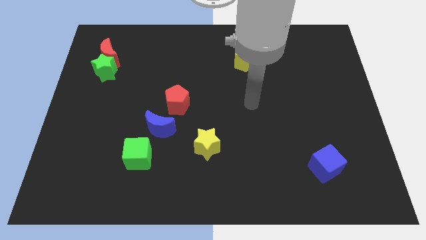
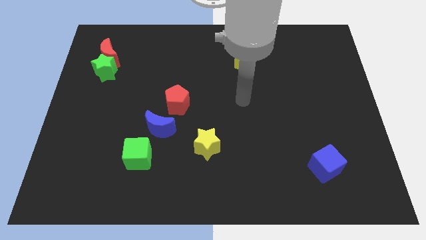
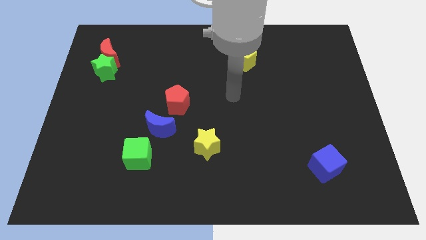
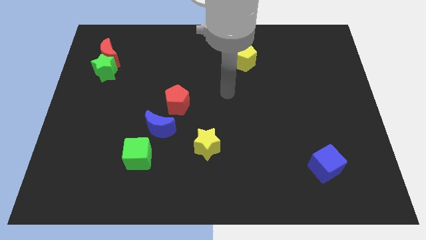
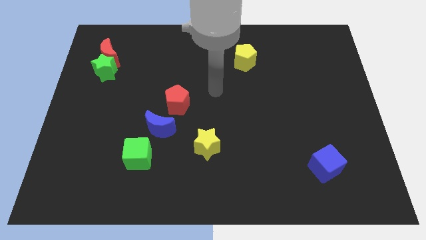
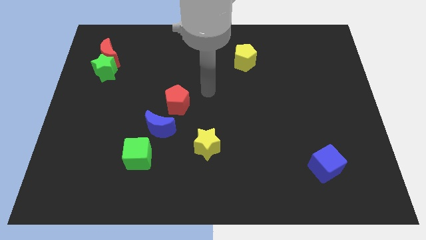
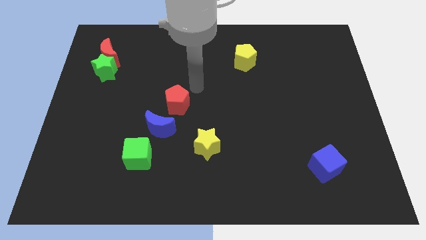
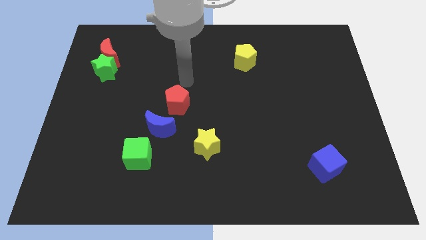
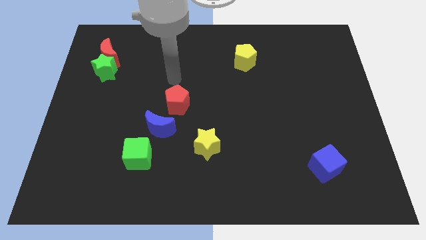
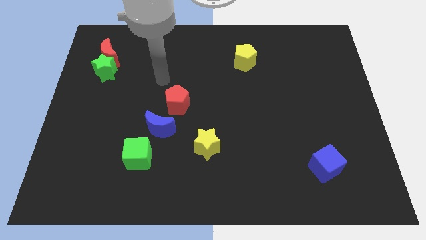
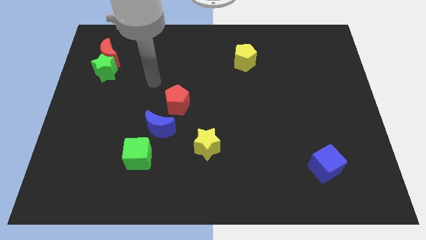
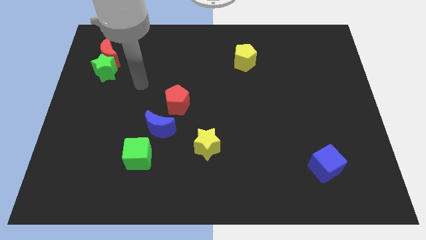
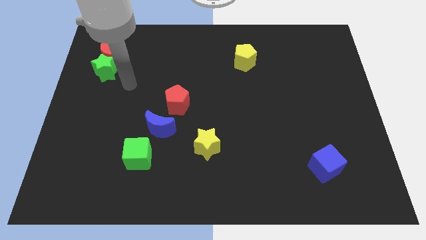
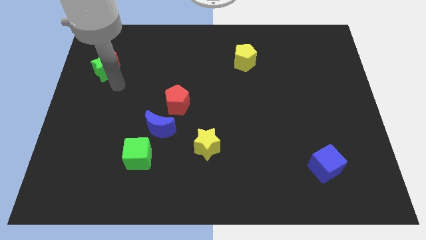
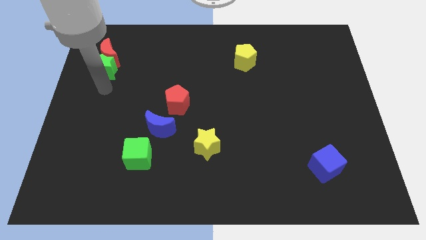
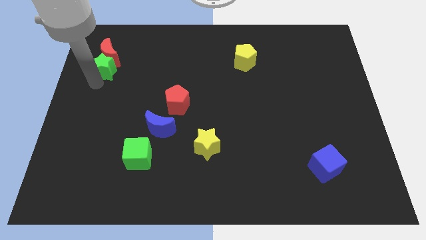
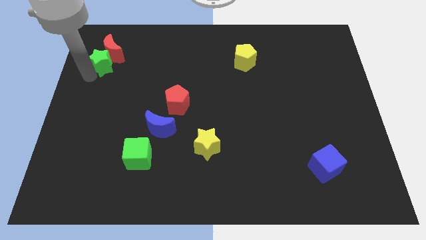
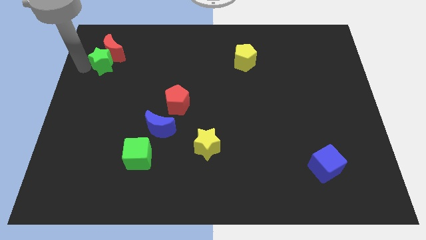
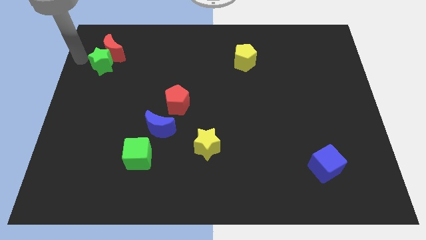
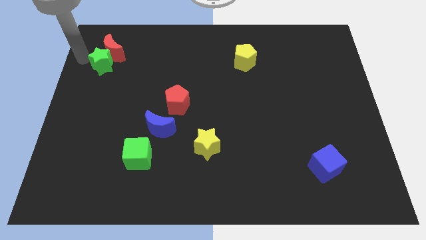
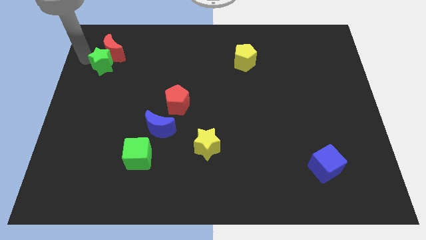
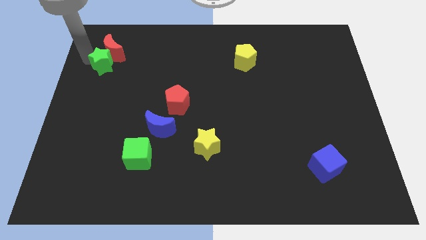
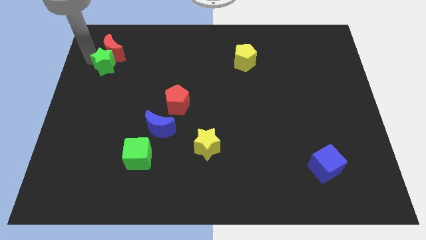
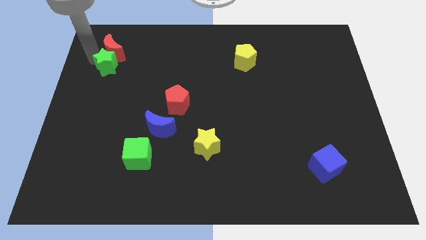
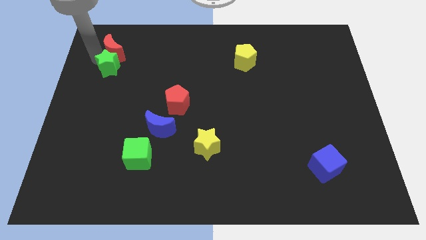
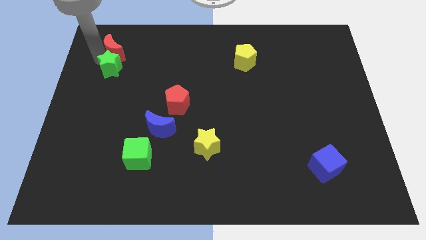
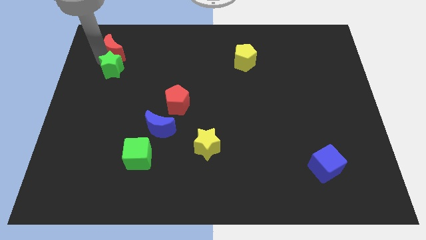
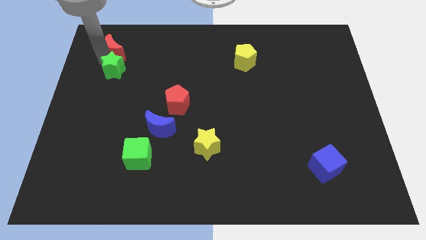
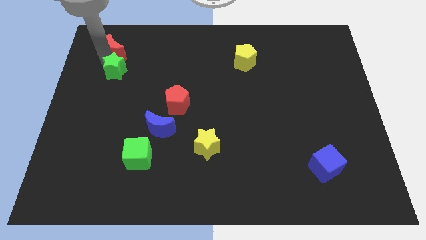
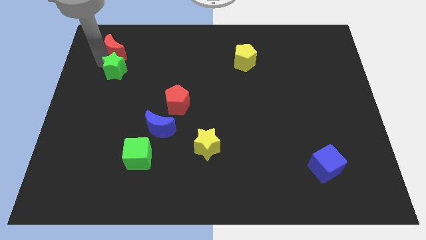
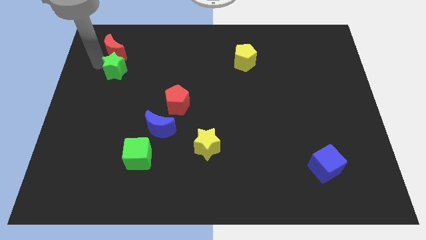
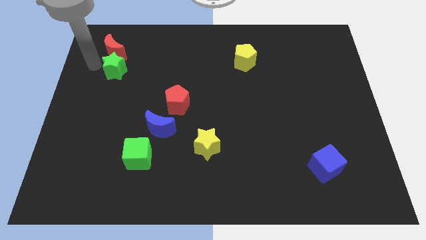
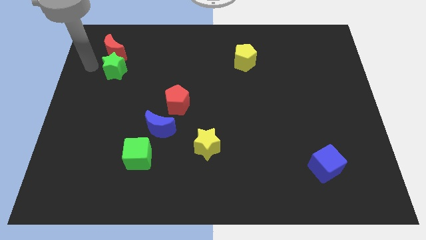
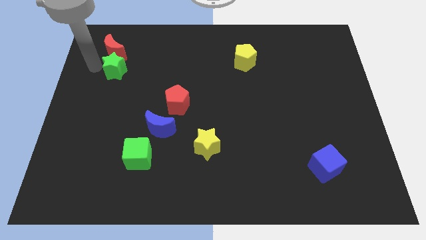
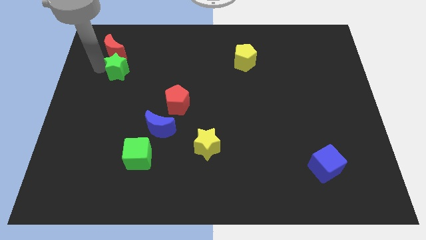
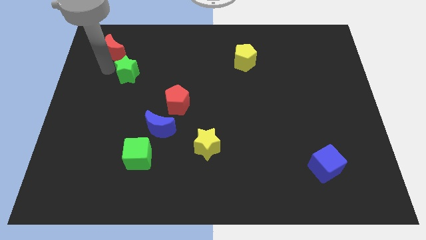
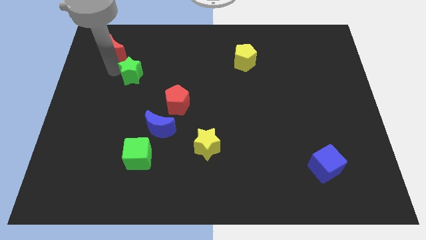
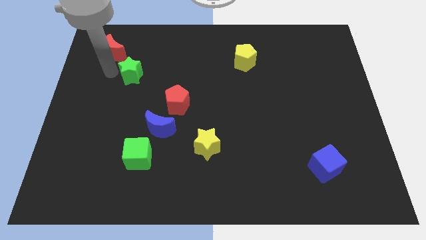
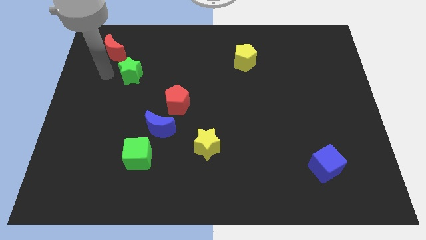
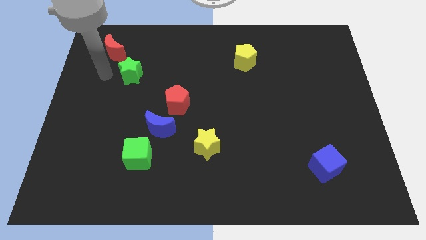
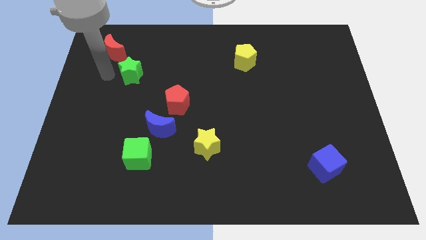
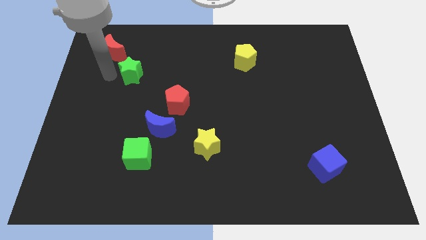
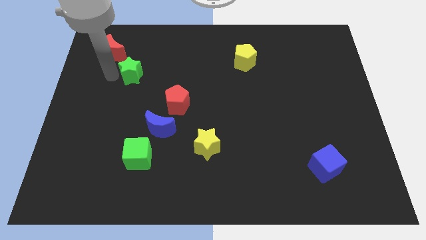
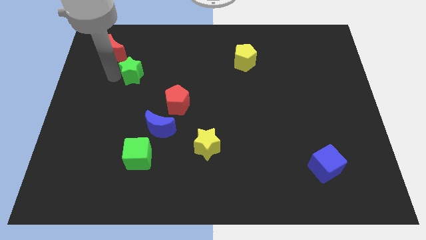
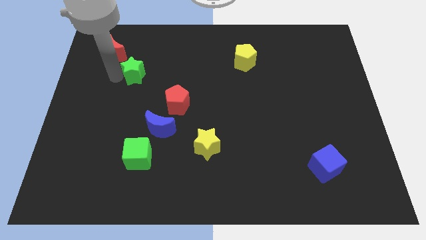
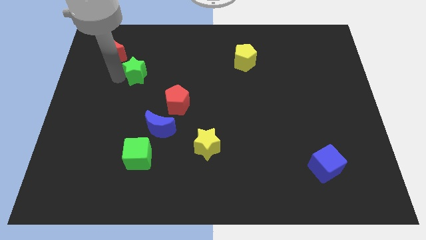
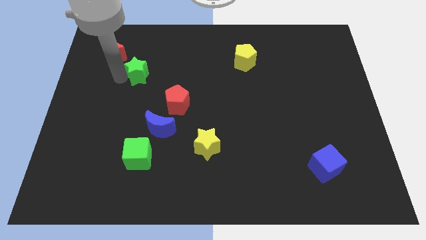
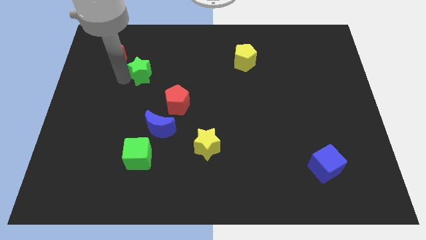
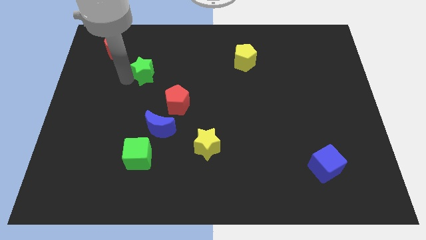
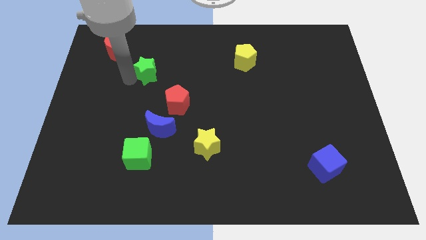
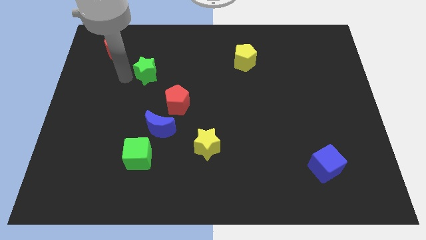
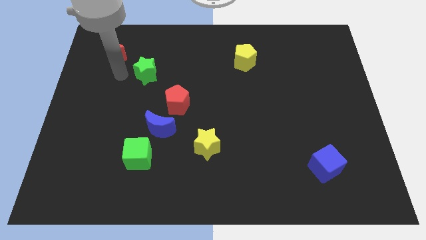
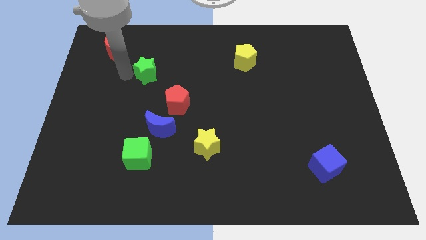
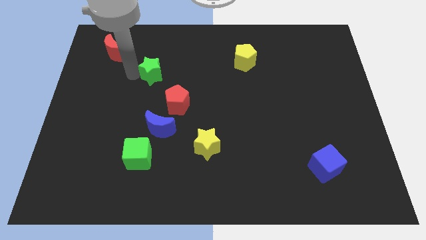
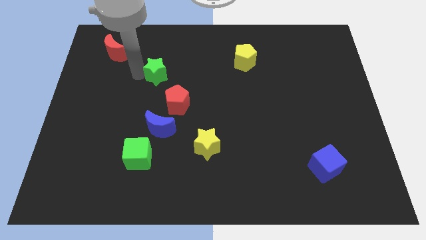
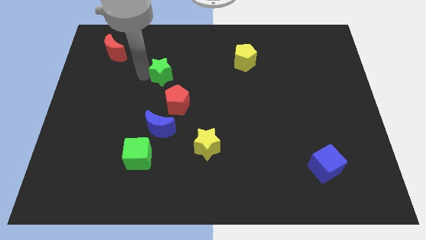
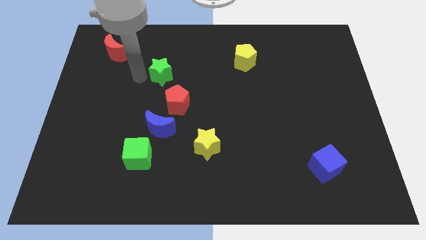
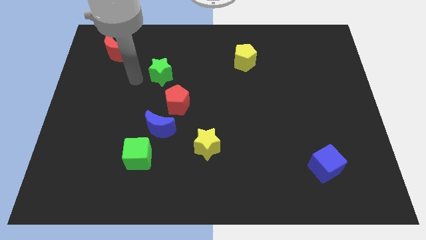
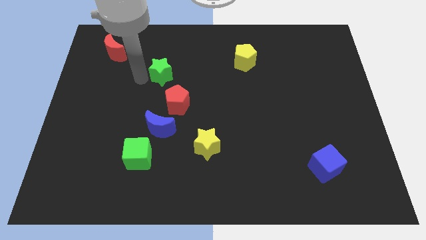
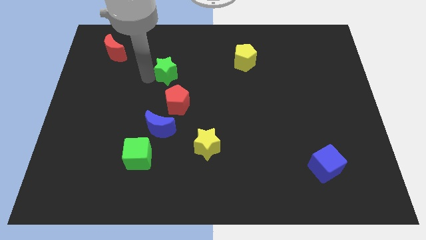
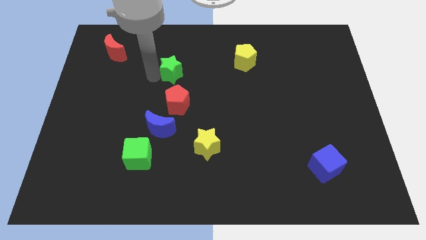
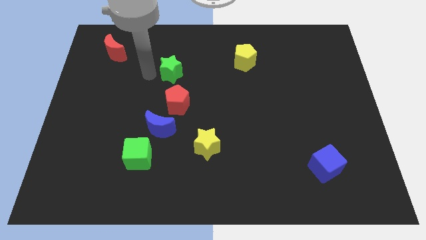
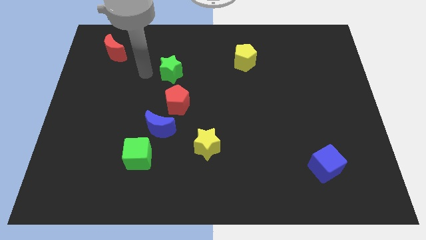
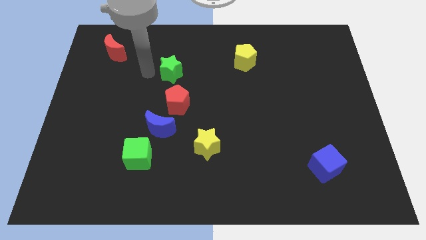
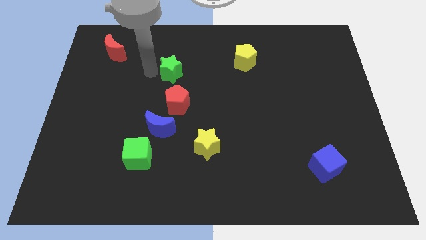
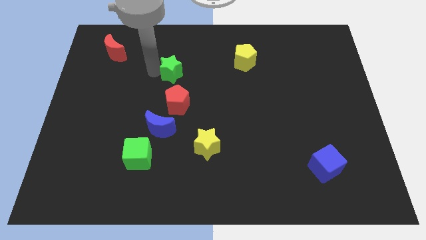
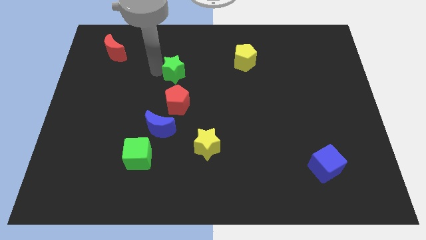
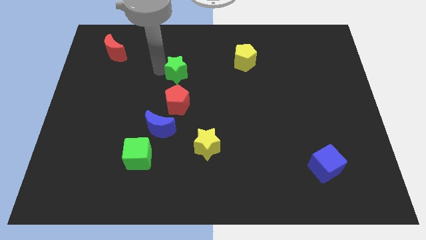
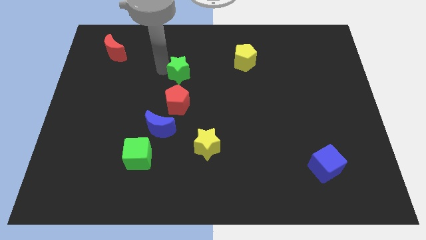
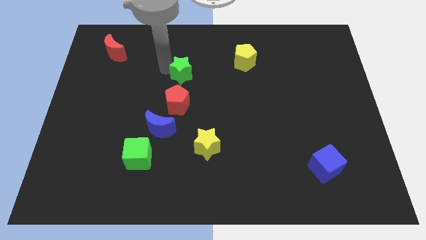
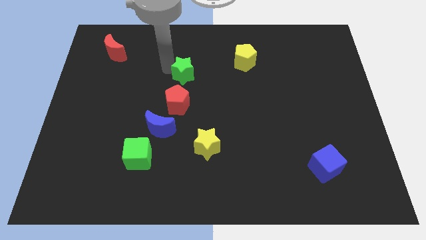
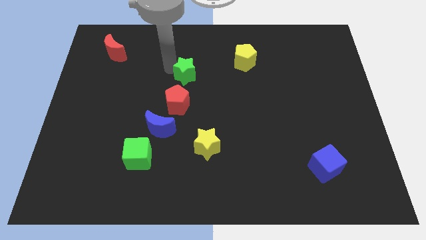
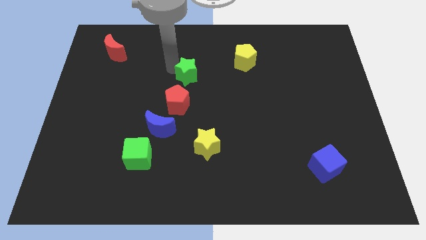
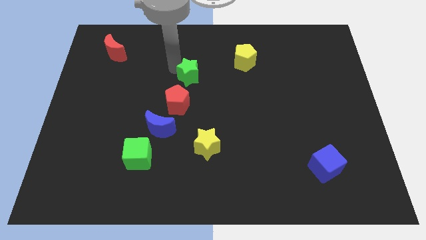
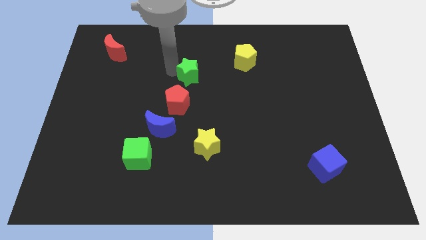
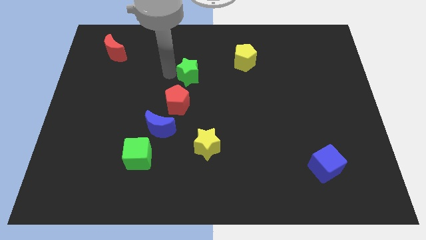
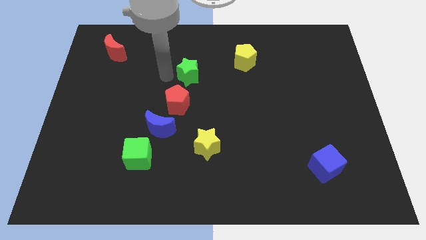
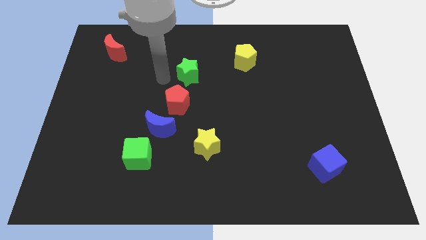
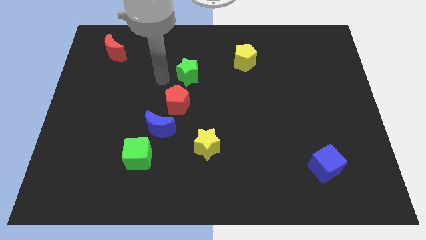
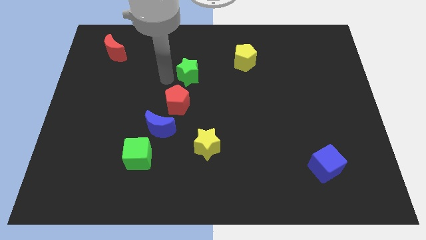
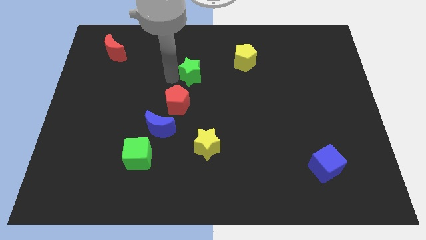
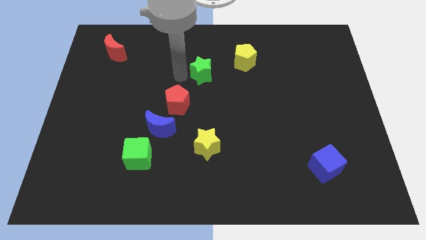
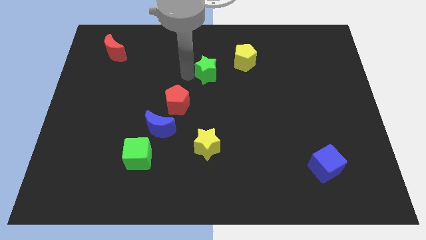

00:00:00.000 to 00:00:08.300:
put the green star diagonally down and to the left of the yellow pentagon
